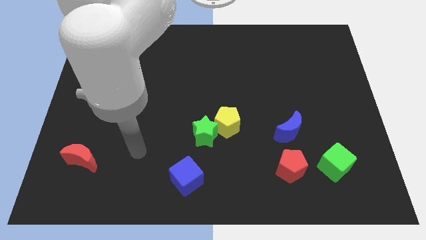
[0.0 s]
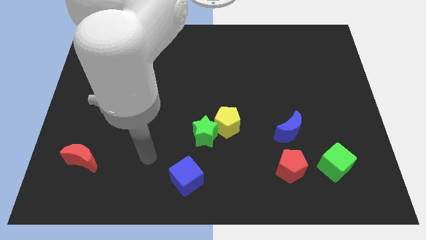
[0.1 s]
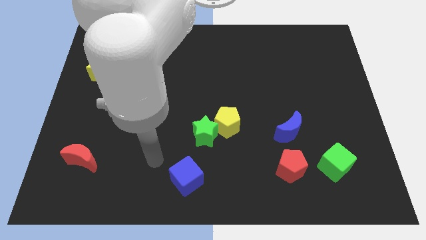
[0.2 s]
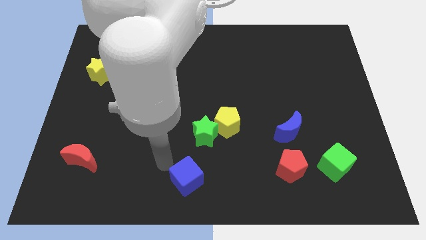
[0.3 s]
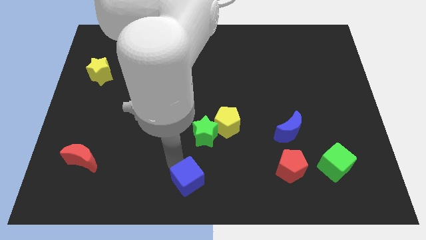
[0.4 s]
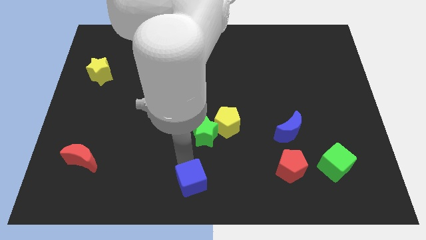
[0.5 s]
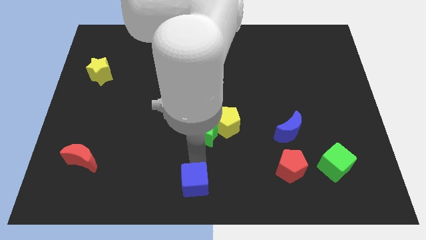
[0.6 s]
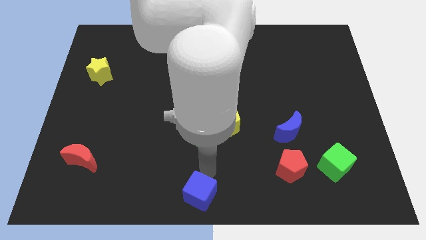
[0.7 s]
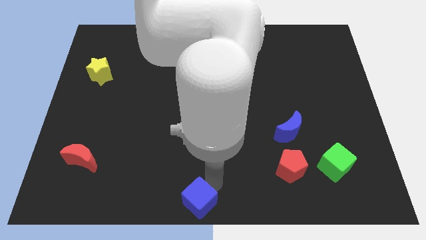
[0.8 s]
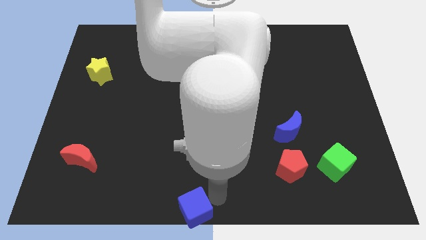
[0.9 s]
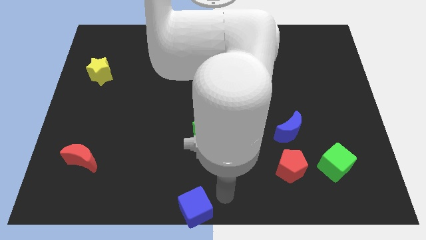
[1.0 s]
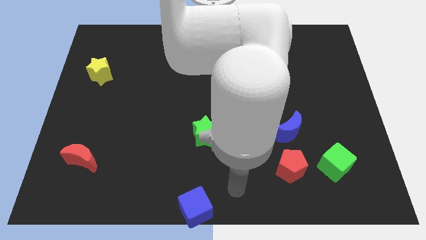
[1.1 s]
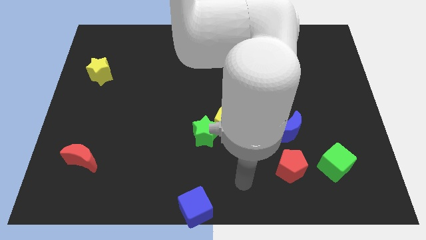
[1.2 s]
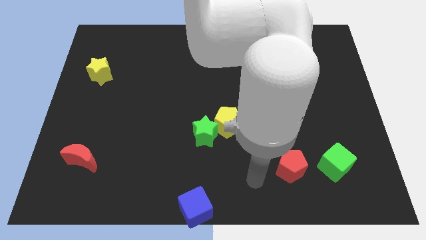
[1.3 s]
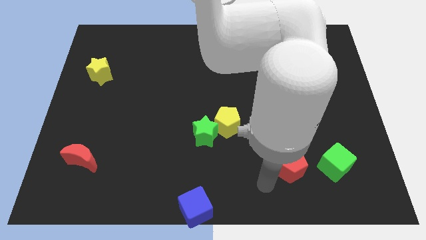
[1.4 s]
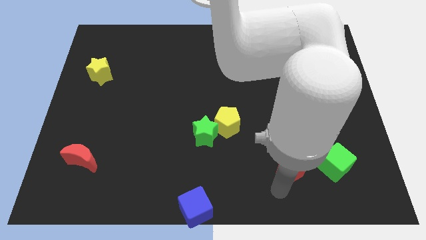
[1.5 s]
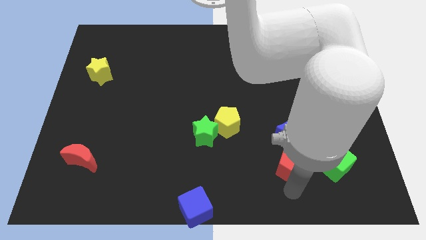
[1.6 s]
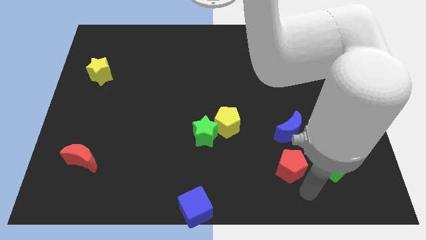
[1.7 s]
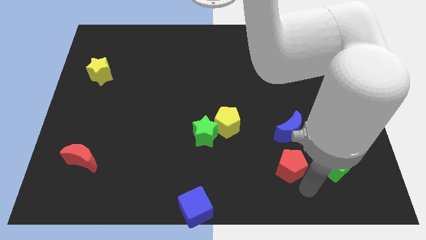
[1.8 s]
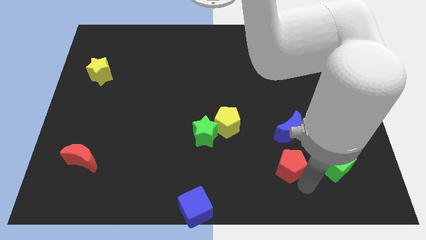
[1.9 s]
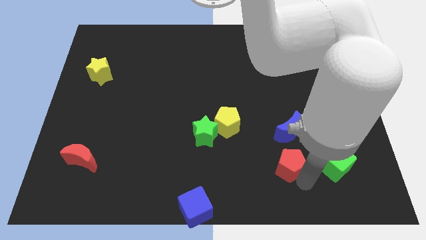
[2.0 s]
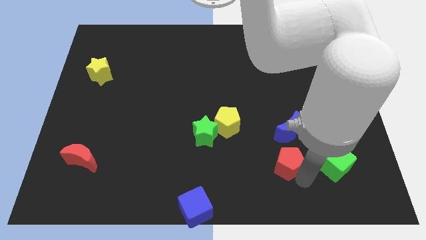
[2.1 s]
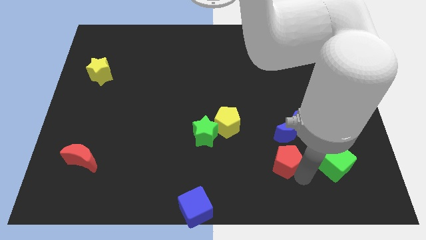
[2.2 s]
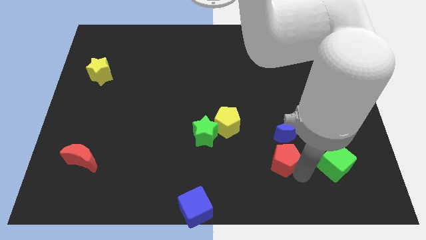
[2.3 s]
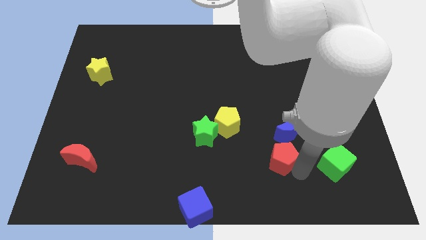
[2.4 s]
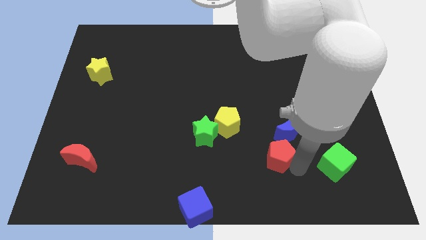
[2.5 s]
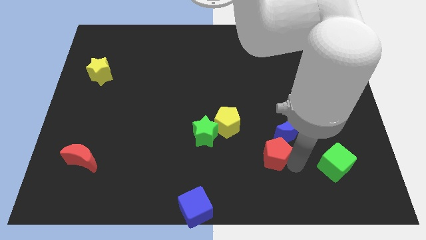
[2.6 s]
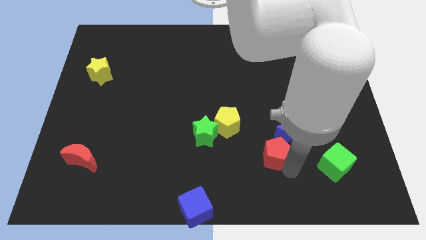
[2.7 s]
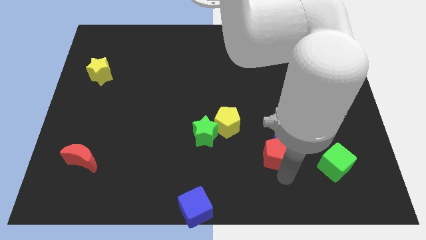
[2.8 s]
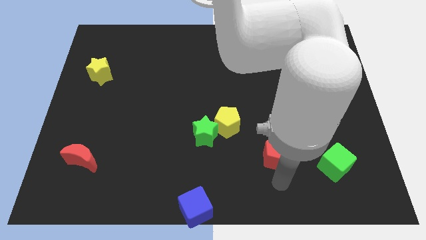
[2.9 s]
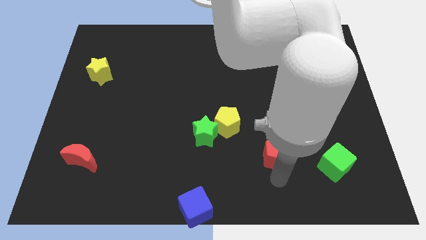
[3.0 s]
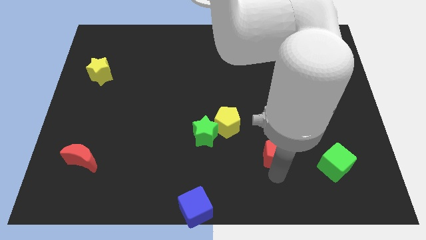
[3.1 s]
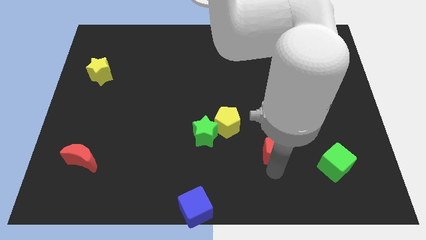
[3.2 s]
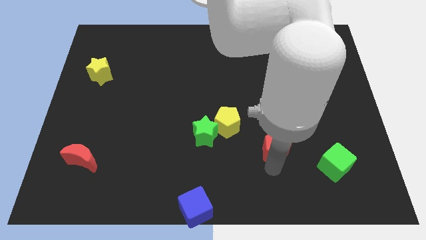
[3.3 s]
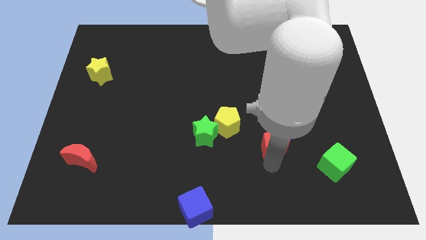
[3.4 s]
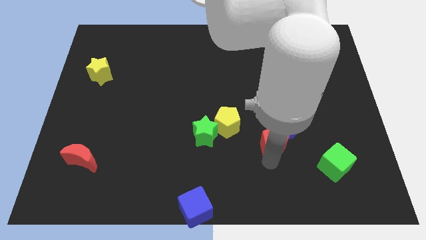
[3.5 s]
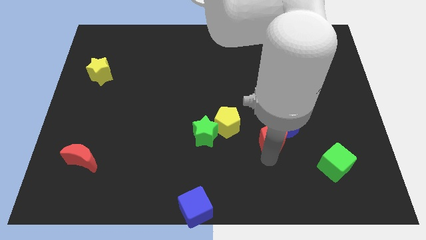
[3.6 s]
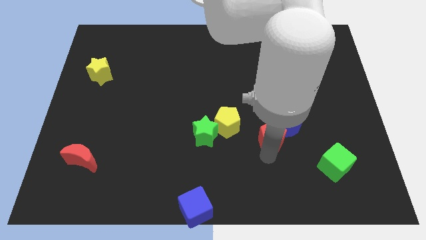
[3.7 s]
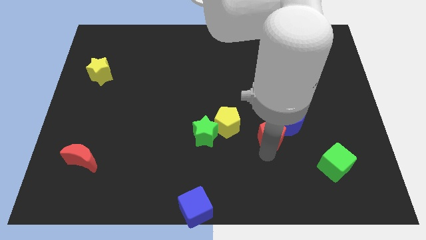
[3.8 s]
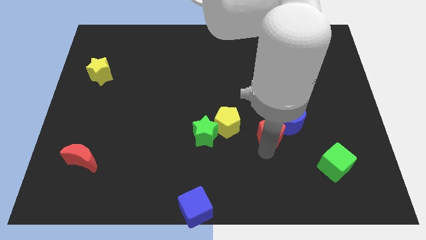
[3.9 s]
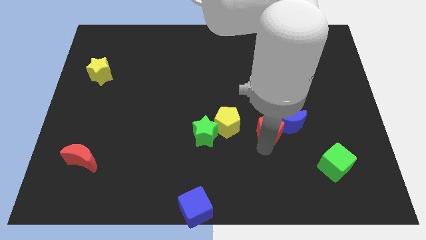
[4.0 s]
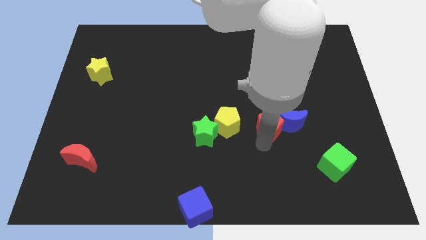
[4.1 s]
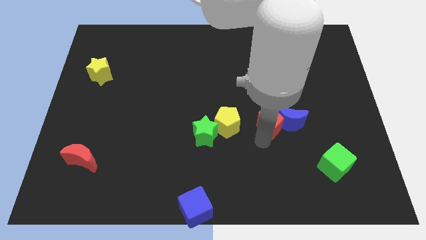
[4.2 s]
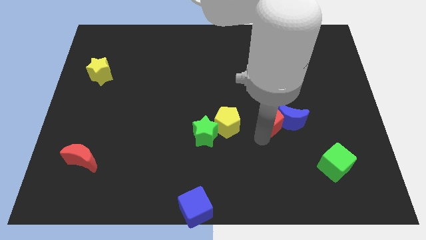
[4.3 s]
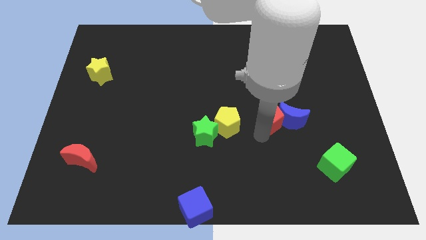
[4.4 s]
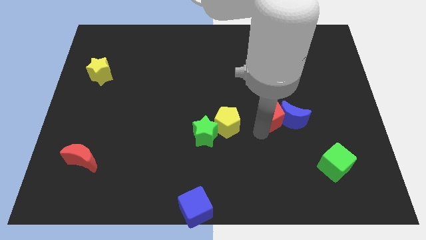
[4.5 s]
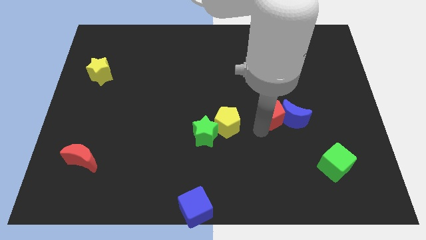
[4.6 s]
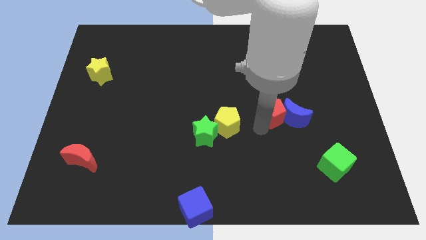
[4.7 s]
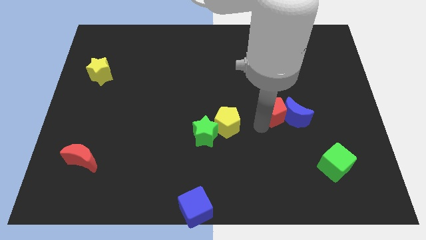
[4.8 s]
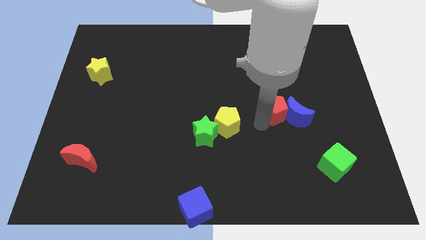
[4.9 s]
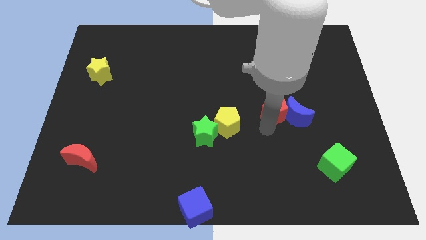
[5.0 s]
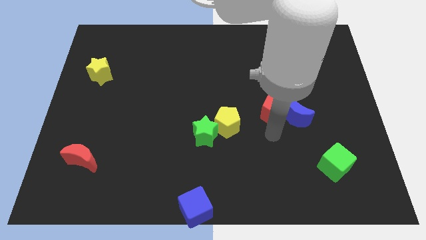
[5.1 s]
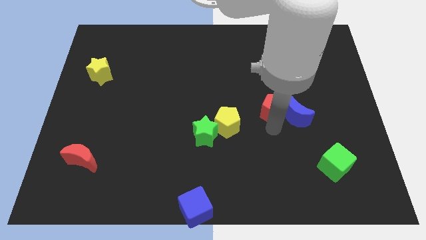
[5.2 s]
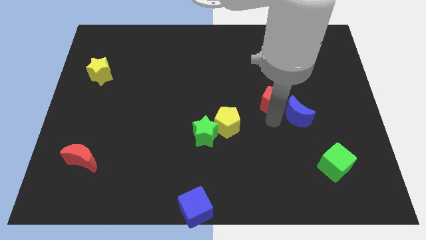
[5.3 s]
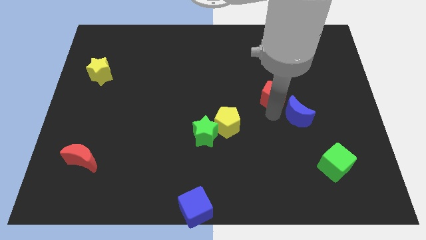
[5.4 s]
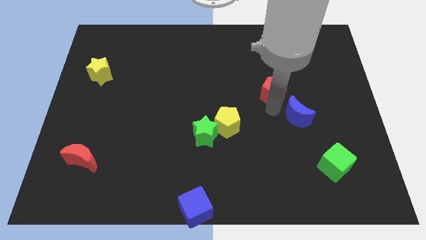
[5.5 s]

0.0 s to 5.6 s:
move the red pentagon up

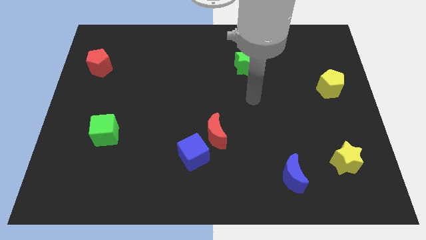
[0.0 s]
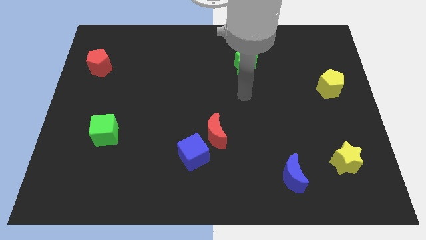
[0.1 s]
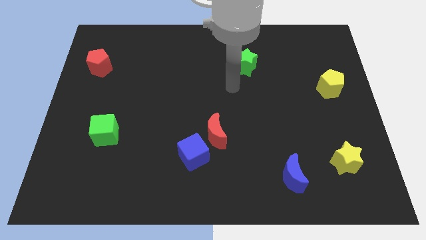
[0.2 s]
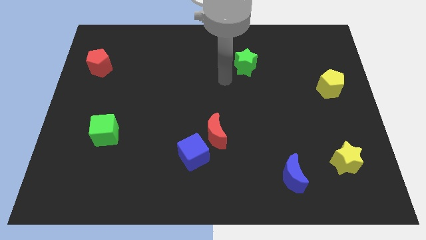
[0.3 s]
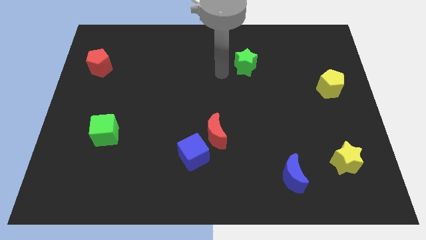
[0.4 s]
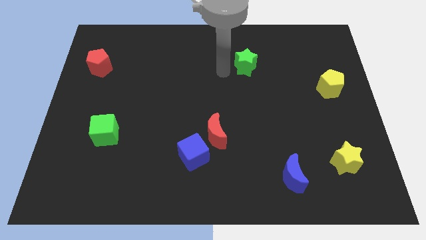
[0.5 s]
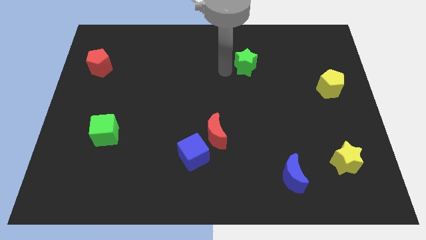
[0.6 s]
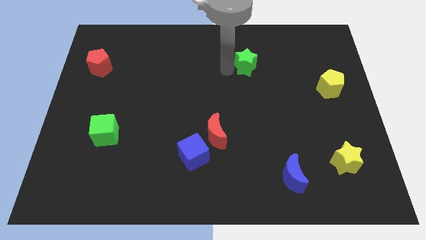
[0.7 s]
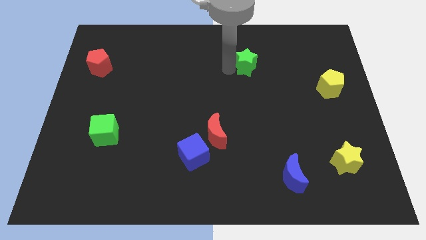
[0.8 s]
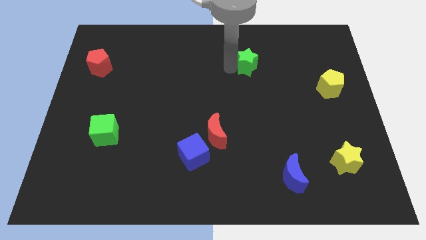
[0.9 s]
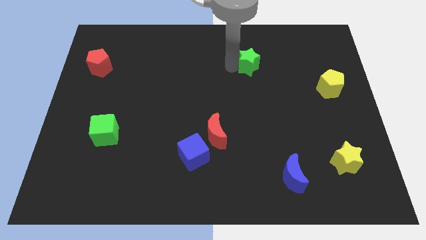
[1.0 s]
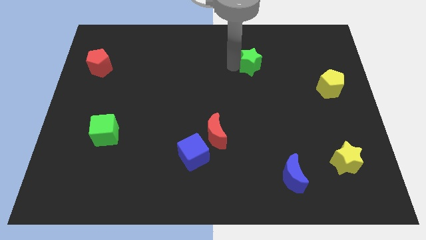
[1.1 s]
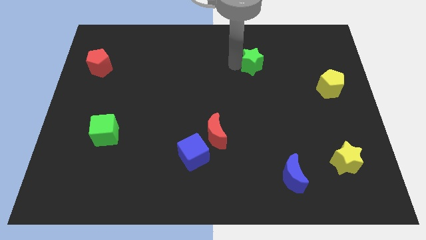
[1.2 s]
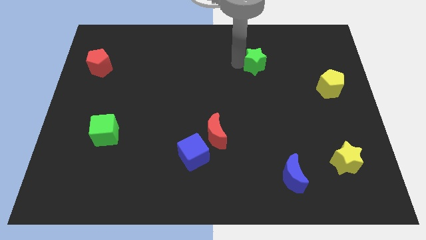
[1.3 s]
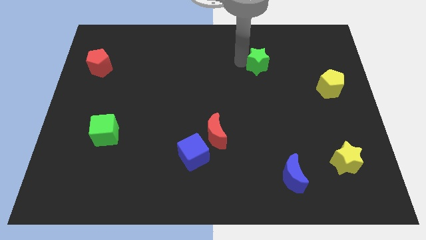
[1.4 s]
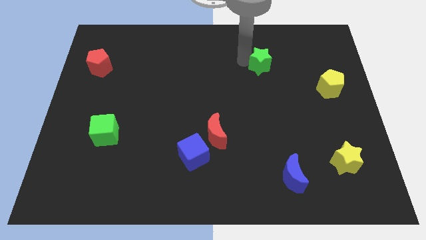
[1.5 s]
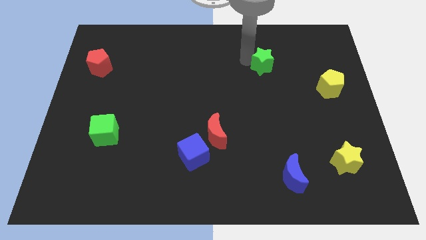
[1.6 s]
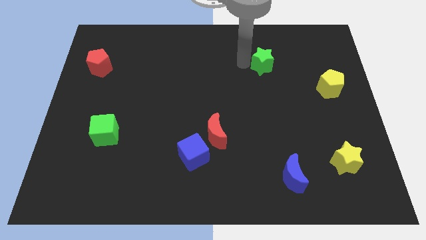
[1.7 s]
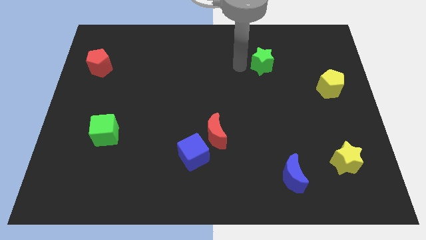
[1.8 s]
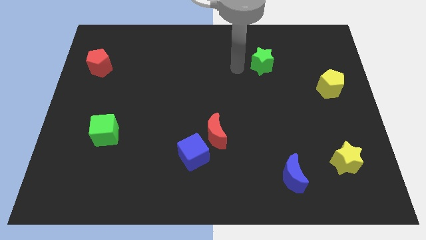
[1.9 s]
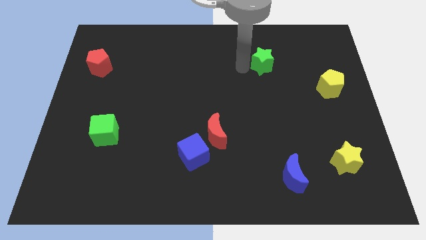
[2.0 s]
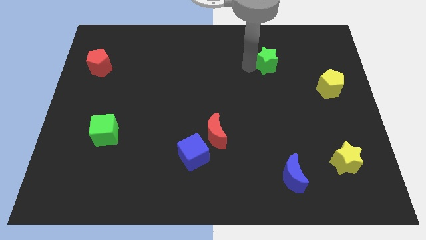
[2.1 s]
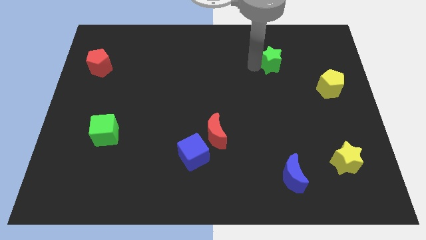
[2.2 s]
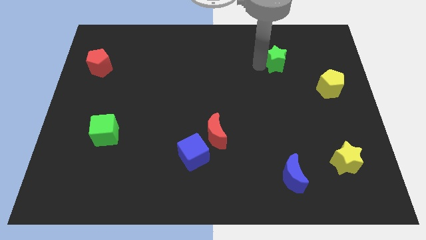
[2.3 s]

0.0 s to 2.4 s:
push the green star to the right a little bit

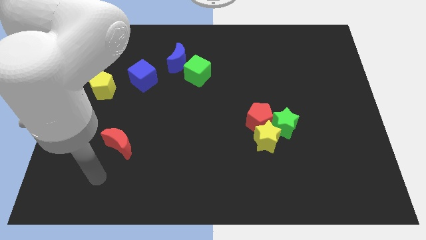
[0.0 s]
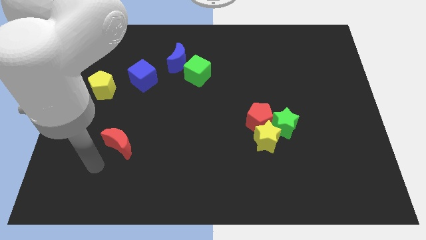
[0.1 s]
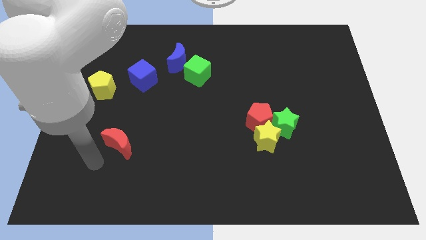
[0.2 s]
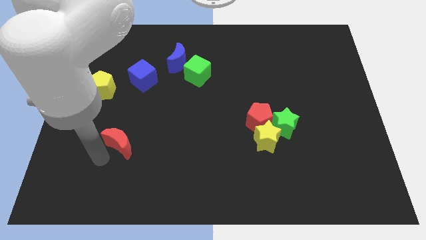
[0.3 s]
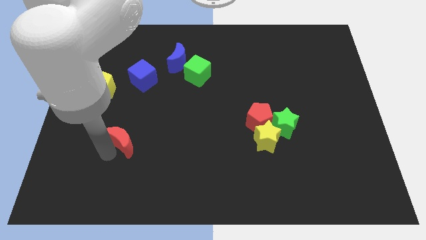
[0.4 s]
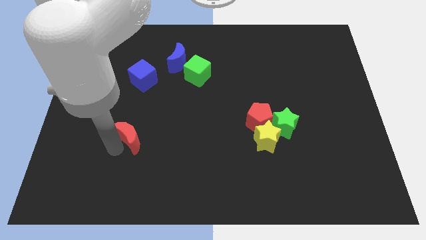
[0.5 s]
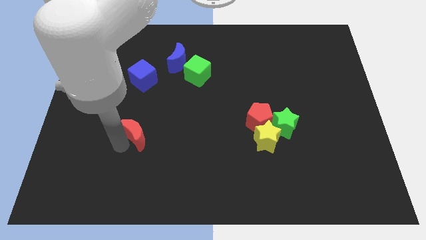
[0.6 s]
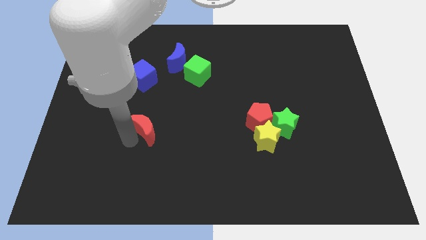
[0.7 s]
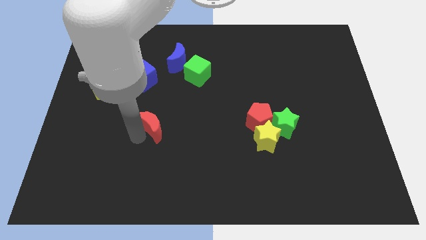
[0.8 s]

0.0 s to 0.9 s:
push the red moon upwards and to the right diagonally a little bit
